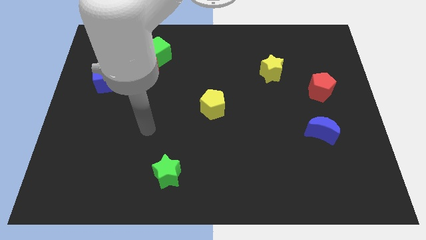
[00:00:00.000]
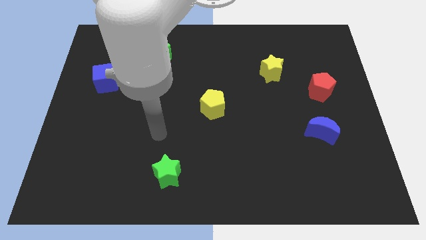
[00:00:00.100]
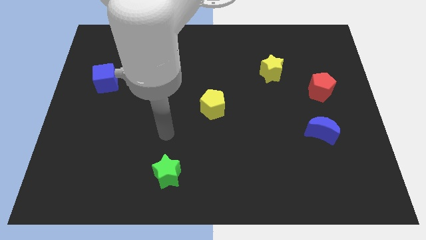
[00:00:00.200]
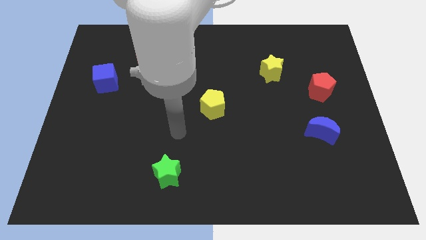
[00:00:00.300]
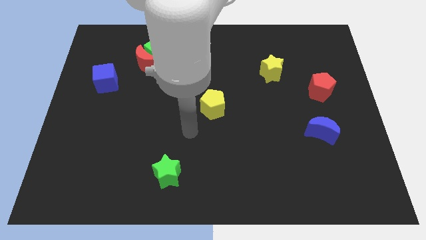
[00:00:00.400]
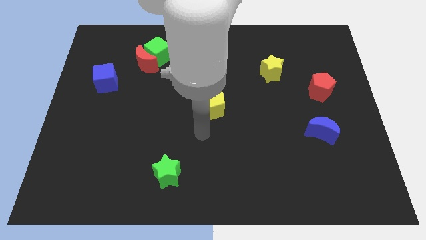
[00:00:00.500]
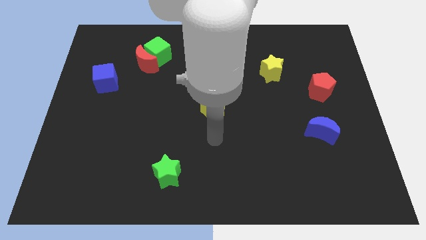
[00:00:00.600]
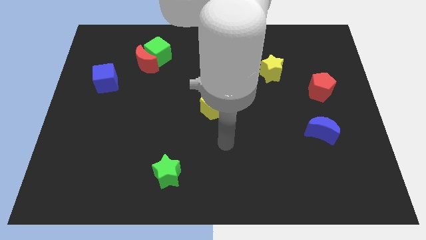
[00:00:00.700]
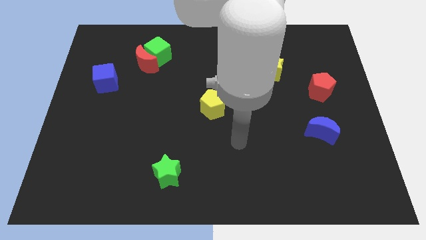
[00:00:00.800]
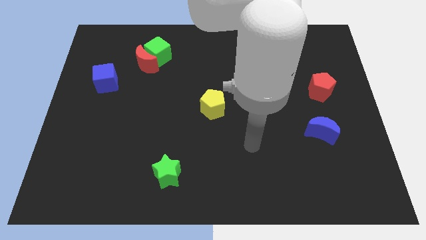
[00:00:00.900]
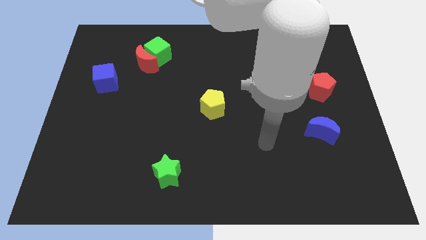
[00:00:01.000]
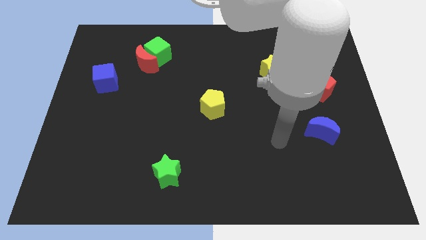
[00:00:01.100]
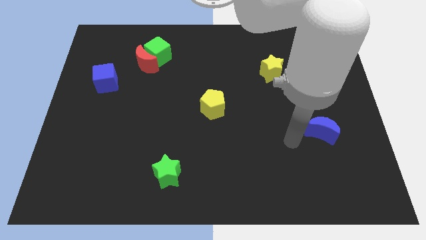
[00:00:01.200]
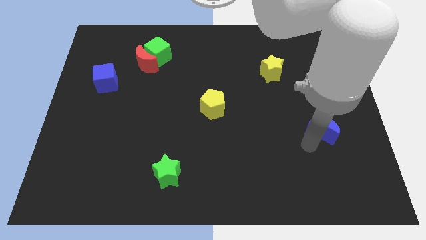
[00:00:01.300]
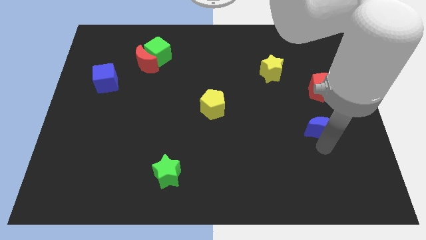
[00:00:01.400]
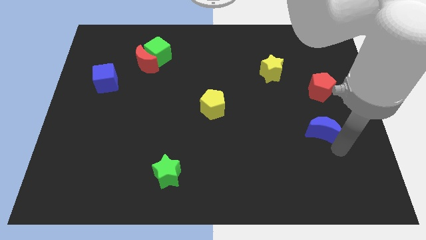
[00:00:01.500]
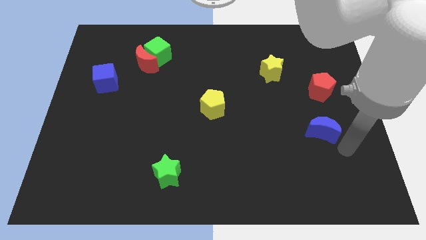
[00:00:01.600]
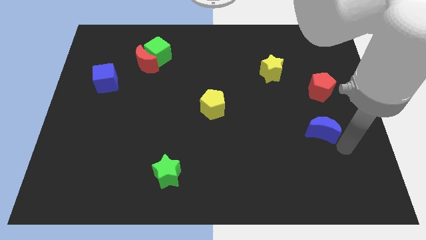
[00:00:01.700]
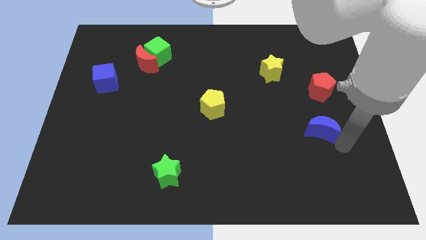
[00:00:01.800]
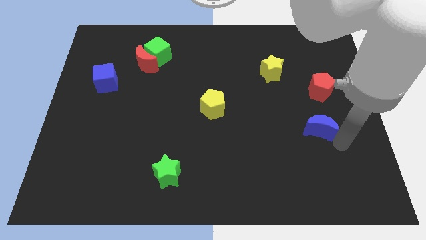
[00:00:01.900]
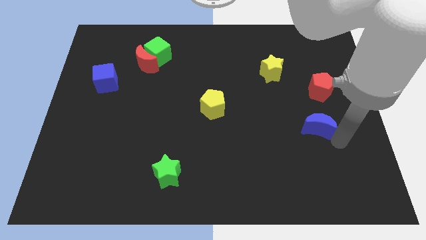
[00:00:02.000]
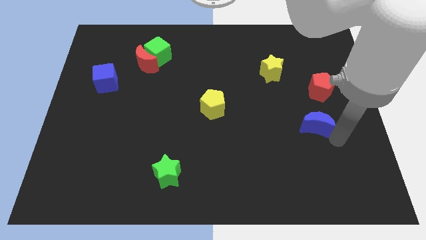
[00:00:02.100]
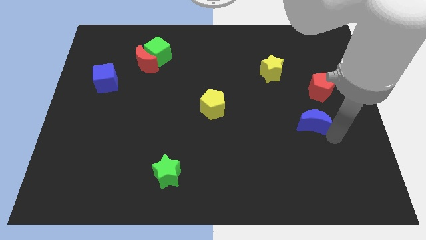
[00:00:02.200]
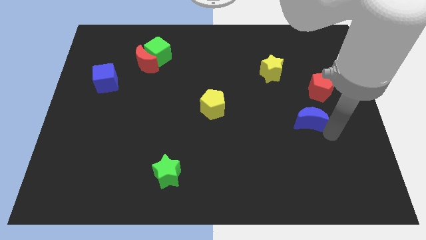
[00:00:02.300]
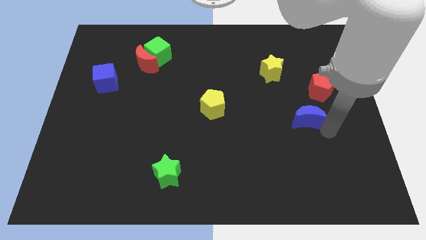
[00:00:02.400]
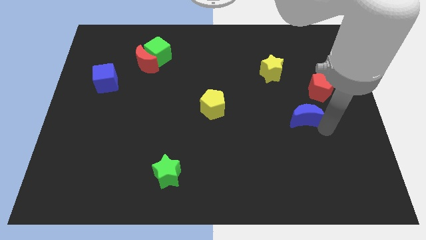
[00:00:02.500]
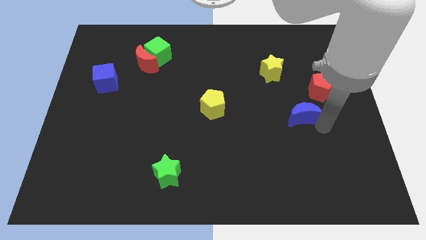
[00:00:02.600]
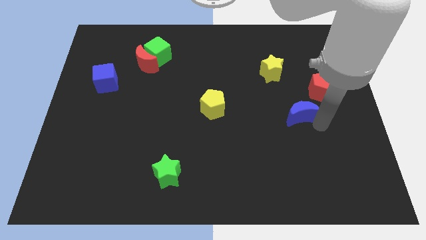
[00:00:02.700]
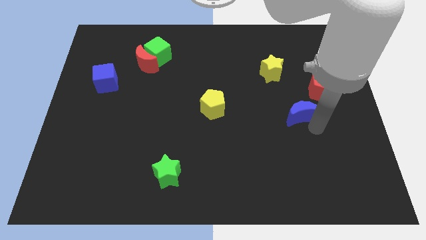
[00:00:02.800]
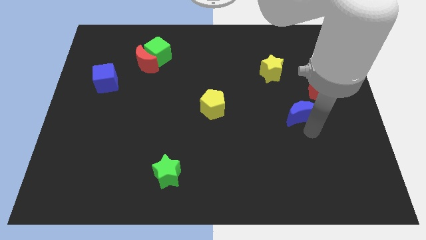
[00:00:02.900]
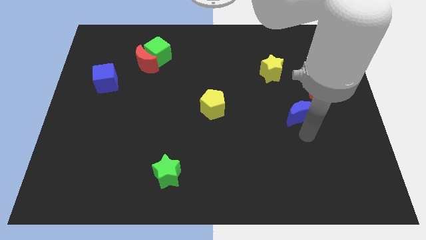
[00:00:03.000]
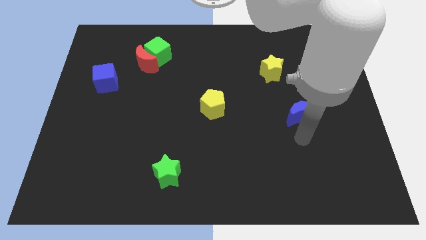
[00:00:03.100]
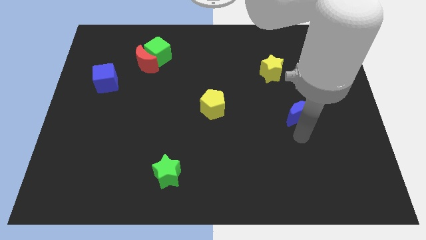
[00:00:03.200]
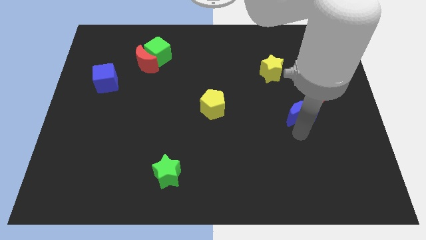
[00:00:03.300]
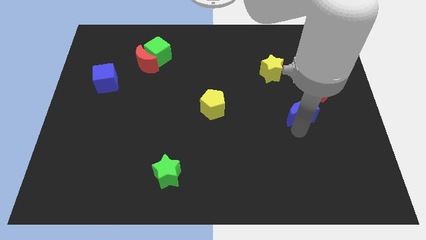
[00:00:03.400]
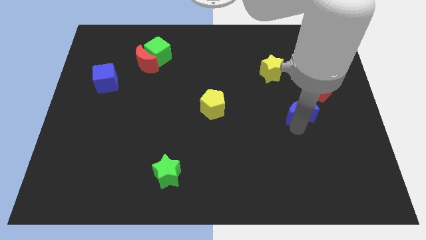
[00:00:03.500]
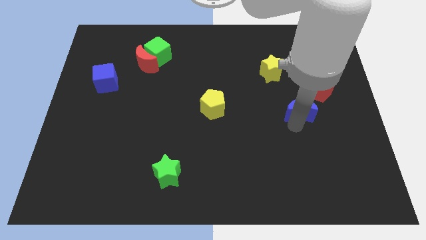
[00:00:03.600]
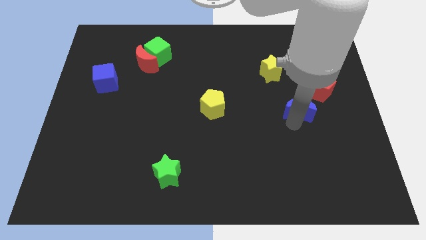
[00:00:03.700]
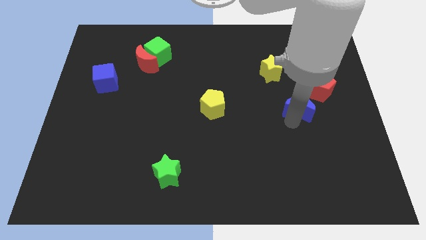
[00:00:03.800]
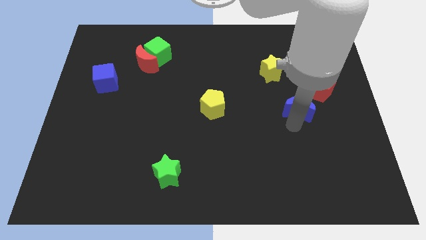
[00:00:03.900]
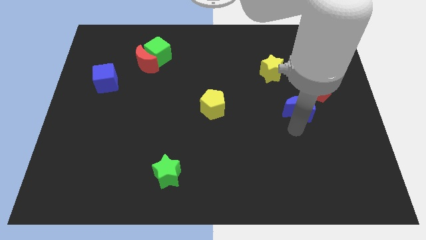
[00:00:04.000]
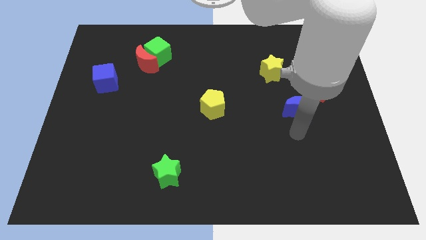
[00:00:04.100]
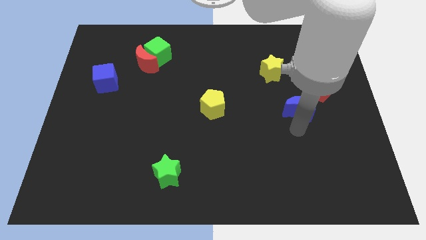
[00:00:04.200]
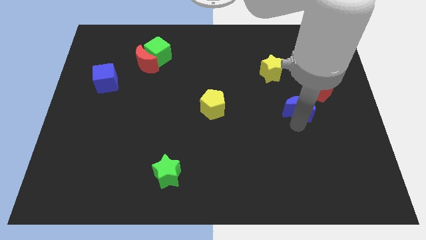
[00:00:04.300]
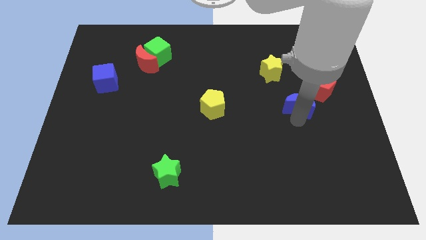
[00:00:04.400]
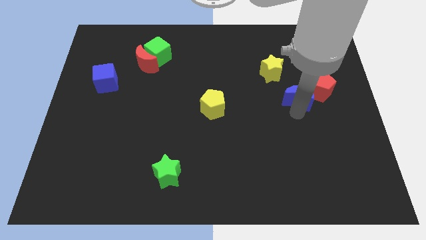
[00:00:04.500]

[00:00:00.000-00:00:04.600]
slightly slide the blue moon upwards

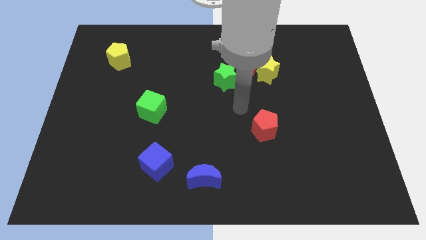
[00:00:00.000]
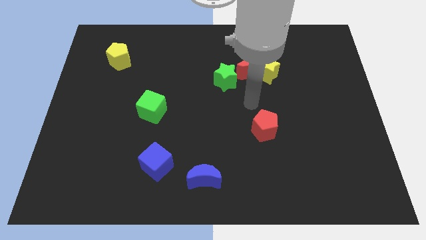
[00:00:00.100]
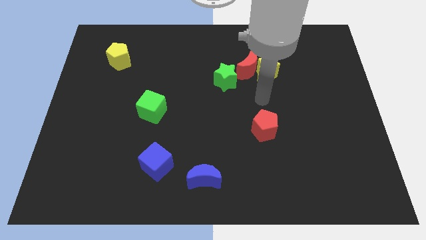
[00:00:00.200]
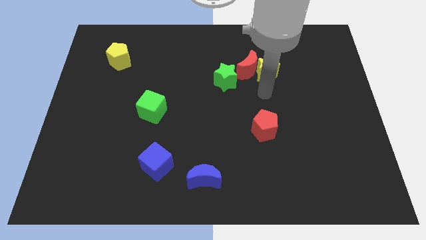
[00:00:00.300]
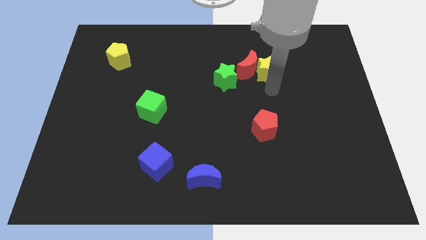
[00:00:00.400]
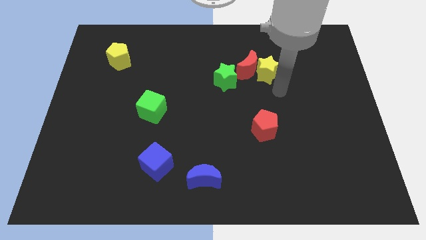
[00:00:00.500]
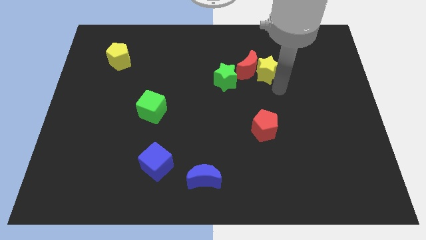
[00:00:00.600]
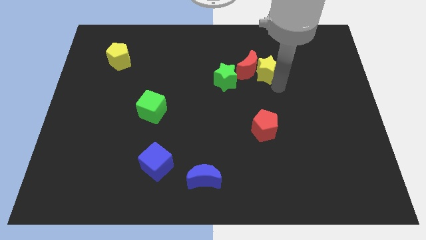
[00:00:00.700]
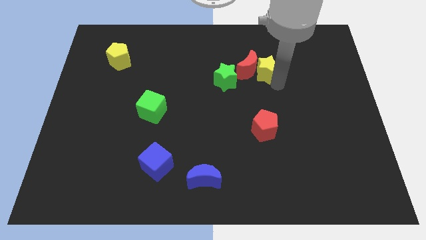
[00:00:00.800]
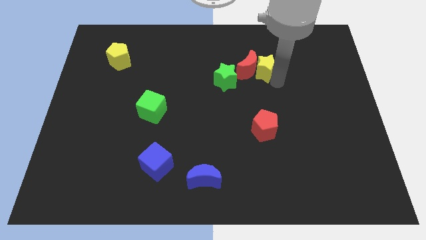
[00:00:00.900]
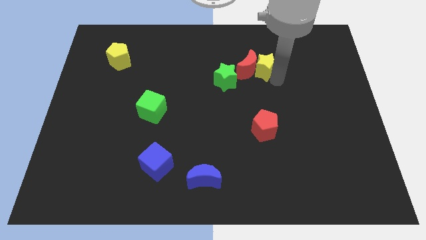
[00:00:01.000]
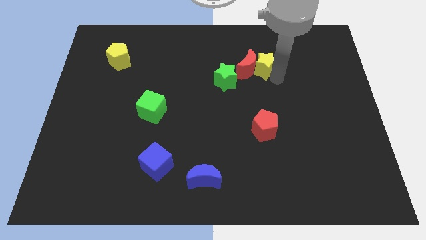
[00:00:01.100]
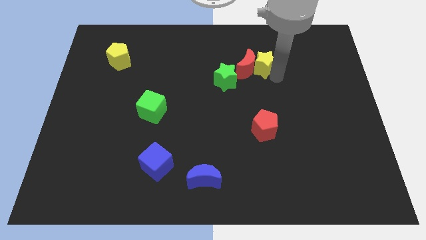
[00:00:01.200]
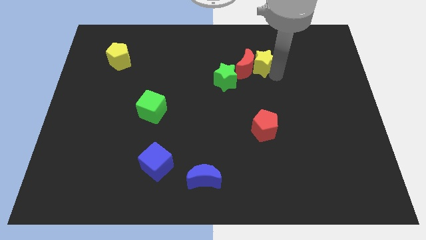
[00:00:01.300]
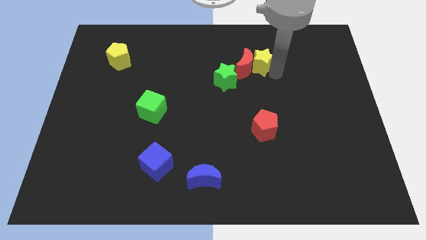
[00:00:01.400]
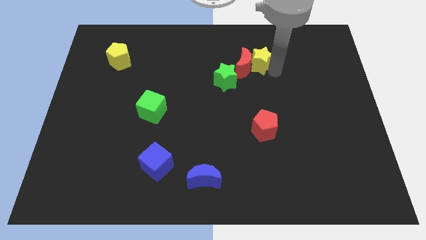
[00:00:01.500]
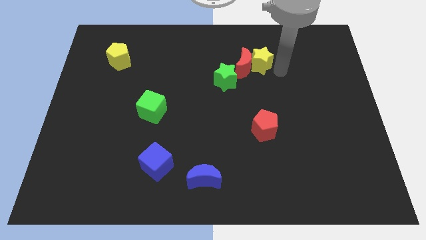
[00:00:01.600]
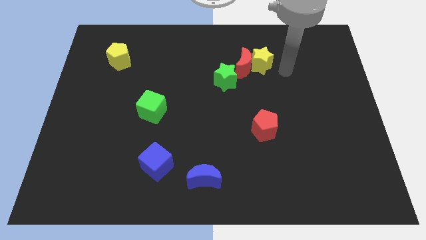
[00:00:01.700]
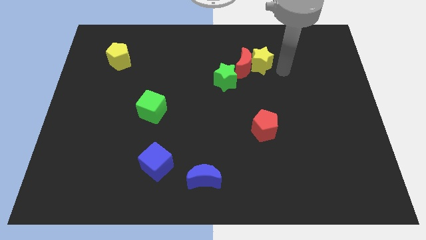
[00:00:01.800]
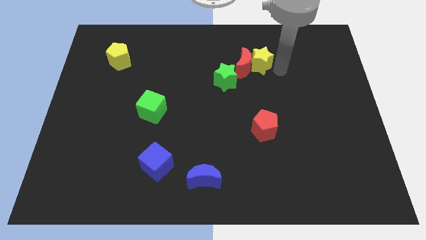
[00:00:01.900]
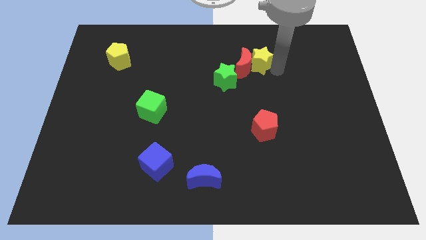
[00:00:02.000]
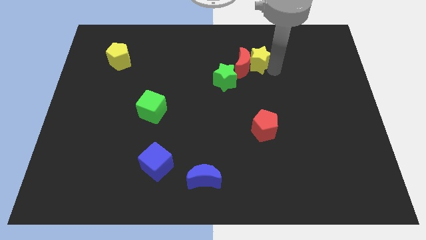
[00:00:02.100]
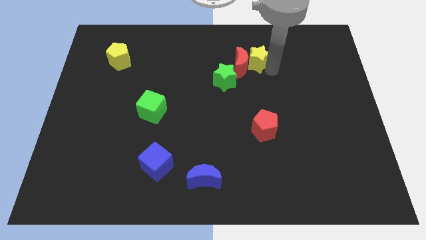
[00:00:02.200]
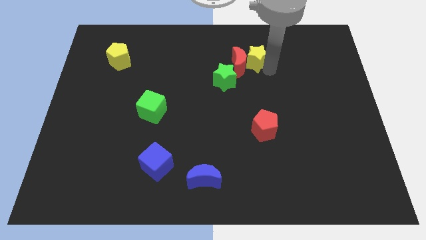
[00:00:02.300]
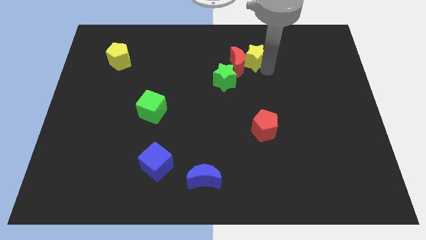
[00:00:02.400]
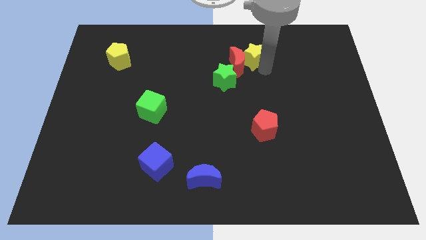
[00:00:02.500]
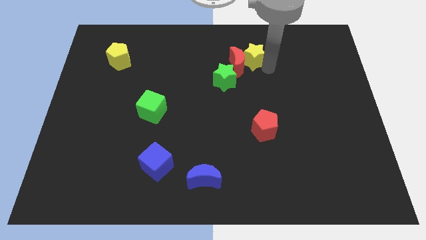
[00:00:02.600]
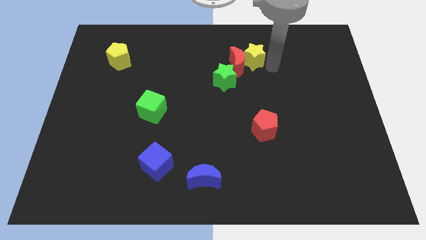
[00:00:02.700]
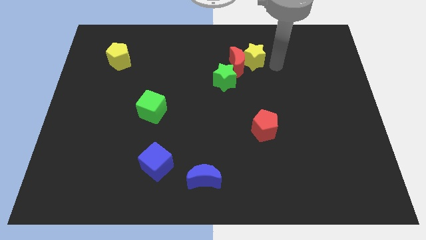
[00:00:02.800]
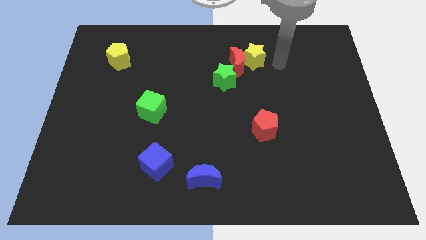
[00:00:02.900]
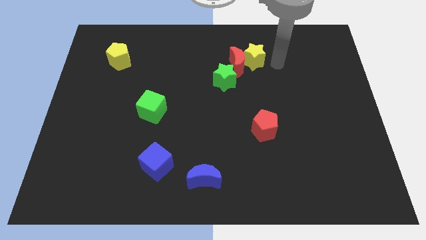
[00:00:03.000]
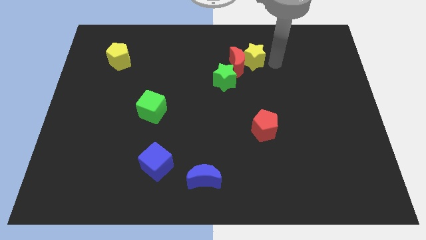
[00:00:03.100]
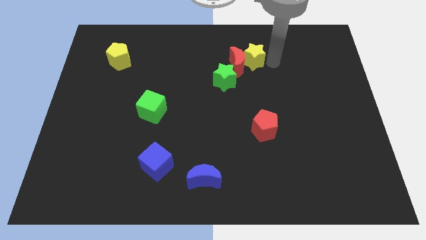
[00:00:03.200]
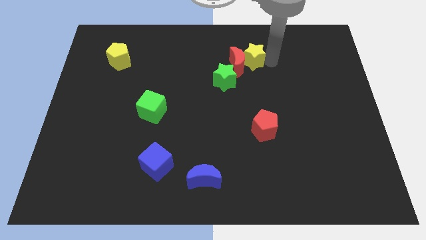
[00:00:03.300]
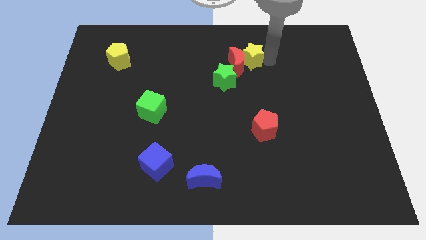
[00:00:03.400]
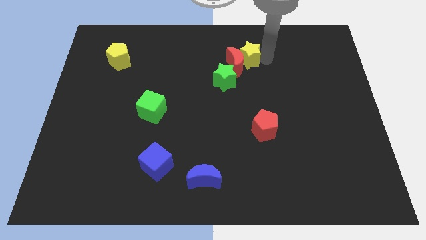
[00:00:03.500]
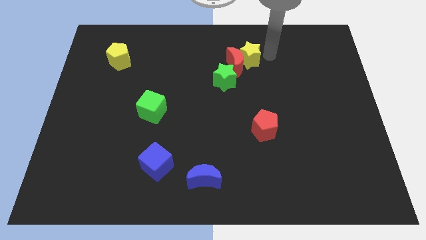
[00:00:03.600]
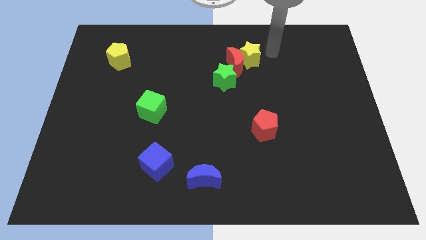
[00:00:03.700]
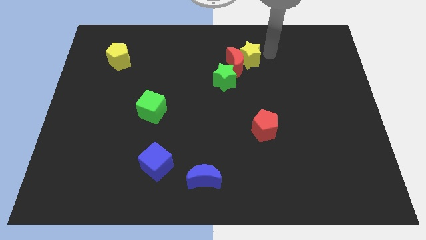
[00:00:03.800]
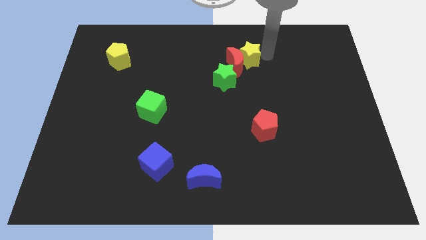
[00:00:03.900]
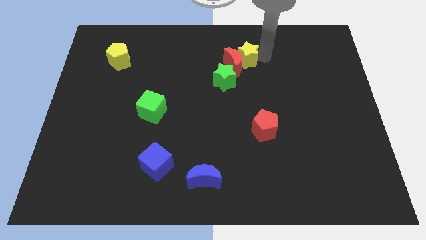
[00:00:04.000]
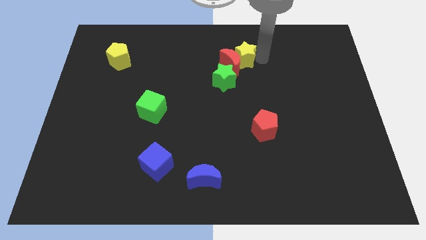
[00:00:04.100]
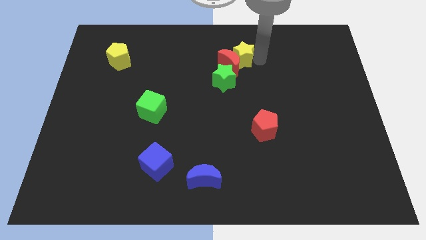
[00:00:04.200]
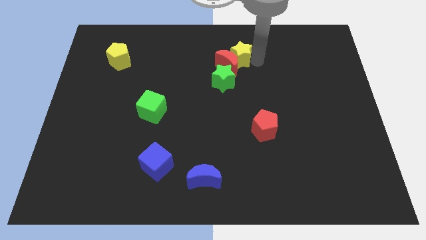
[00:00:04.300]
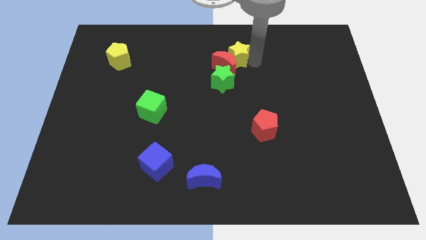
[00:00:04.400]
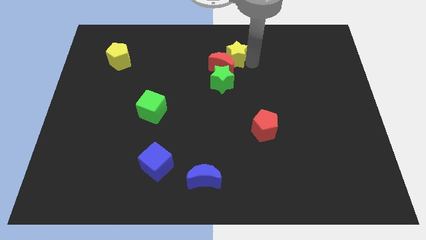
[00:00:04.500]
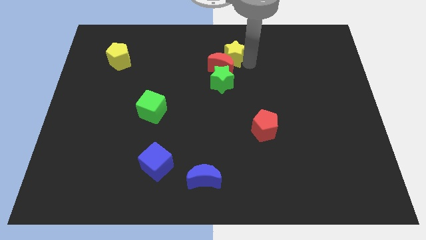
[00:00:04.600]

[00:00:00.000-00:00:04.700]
move the yellow star slightly left
